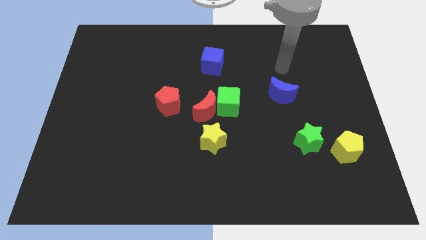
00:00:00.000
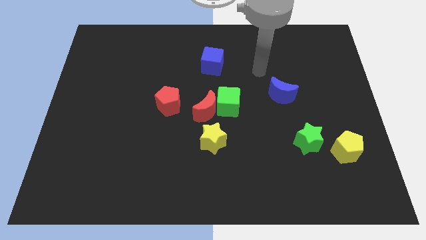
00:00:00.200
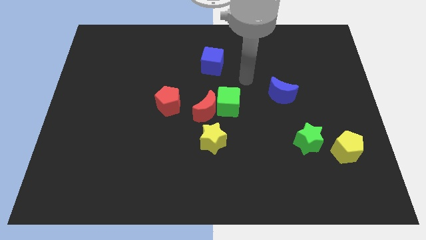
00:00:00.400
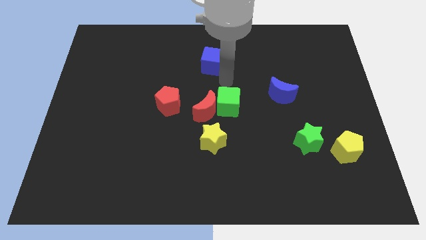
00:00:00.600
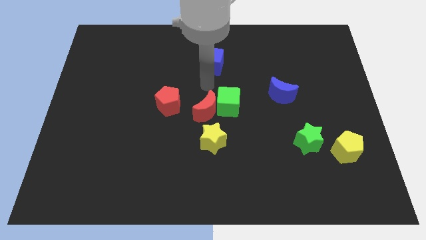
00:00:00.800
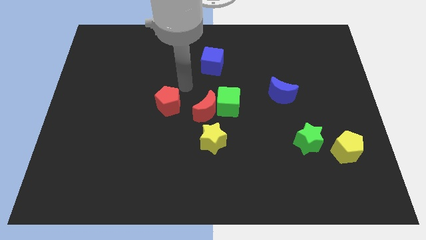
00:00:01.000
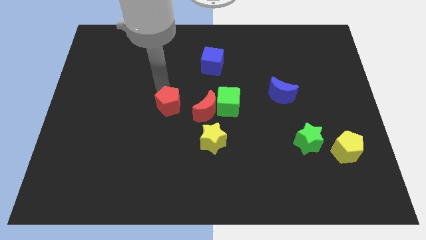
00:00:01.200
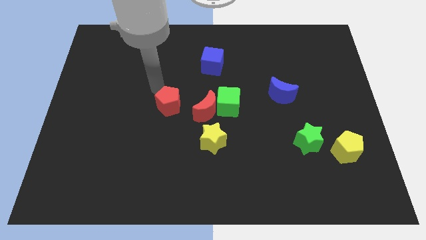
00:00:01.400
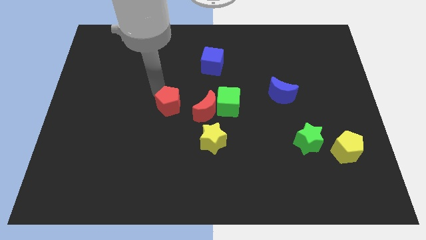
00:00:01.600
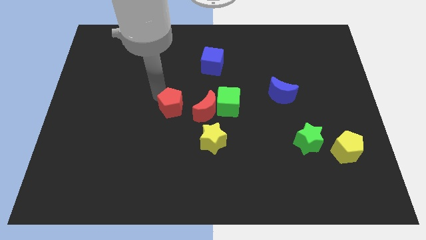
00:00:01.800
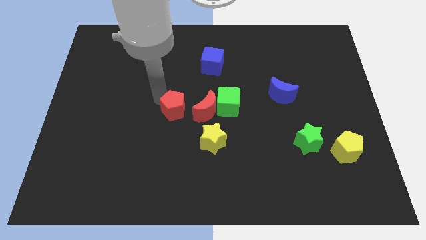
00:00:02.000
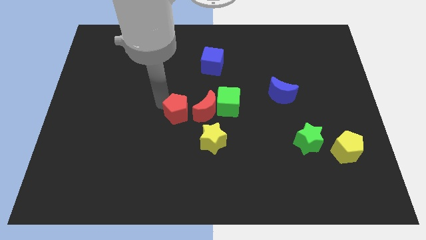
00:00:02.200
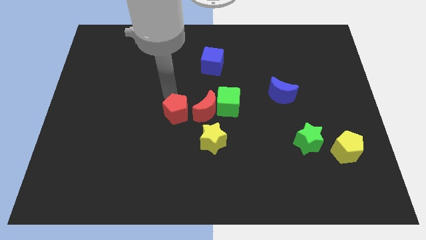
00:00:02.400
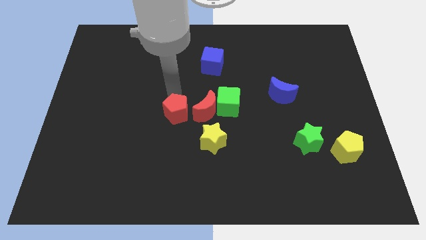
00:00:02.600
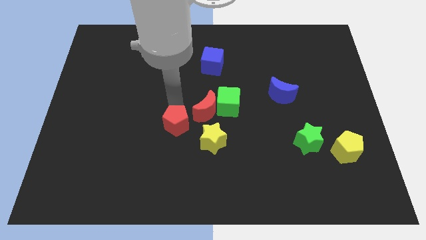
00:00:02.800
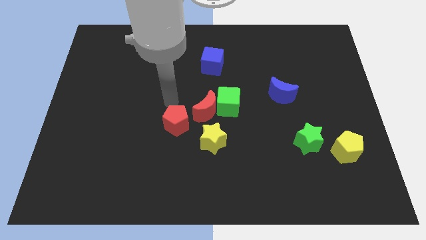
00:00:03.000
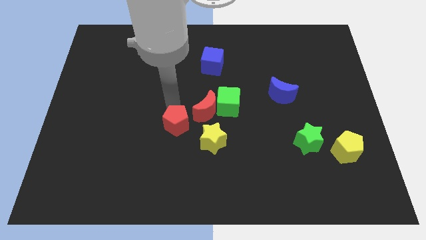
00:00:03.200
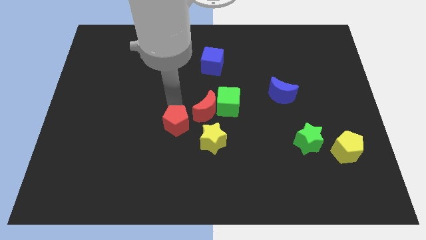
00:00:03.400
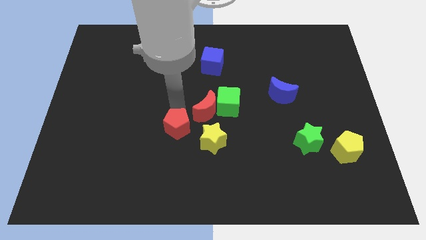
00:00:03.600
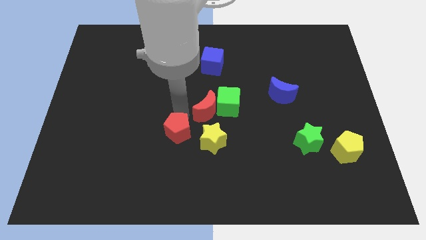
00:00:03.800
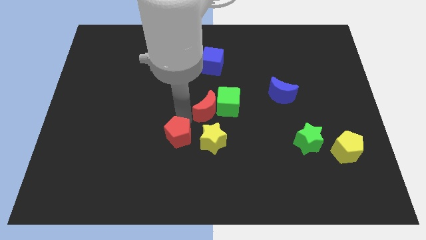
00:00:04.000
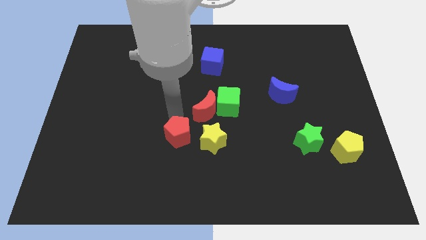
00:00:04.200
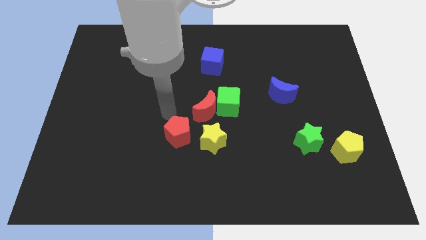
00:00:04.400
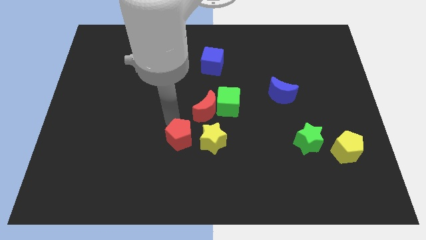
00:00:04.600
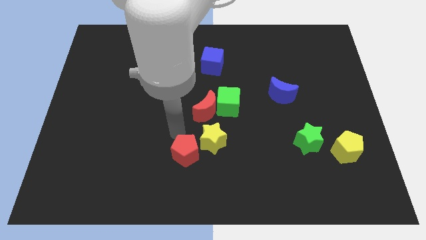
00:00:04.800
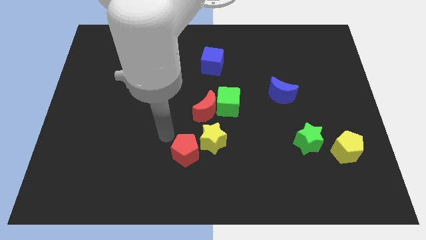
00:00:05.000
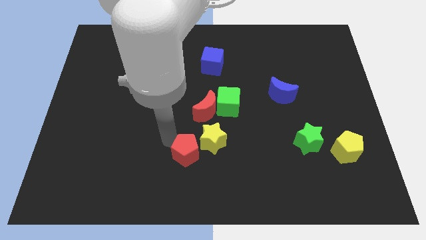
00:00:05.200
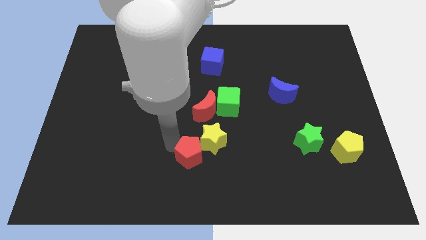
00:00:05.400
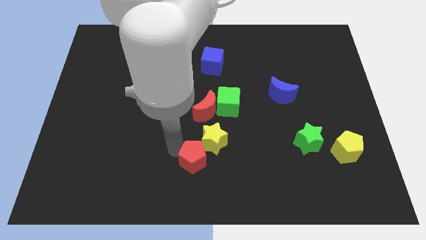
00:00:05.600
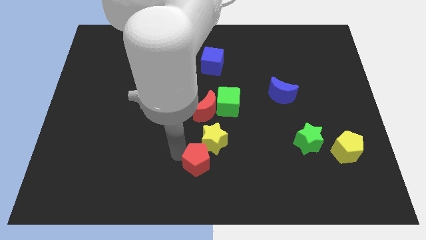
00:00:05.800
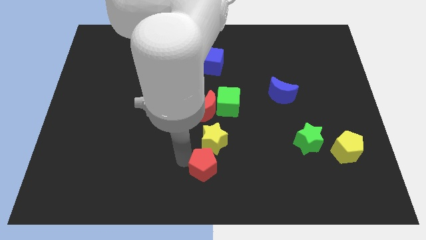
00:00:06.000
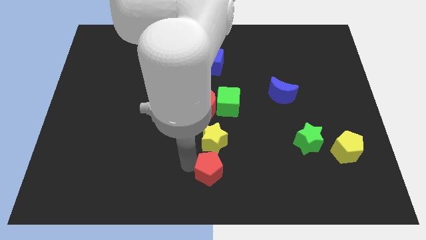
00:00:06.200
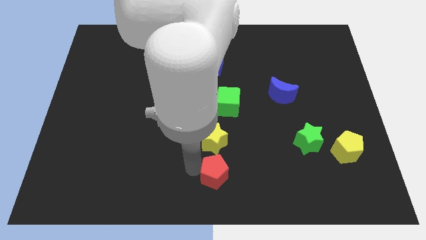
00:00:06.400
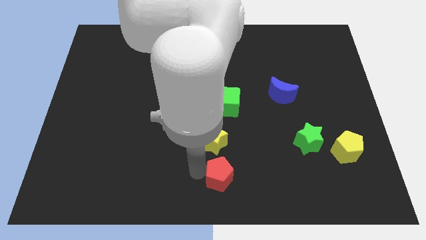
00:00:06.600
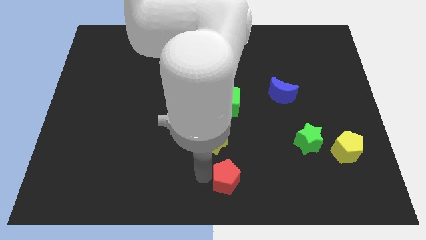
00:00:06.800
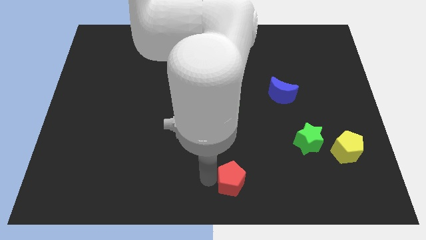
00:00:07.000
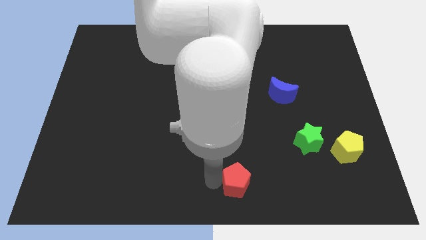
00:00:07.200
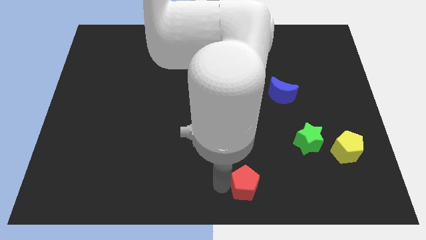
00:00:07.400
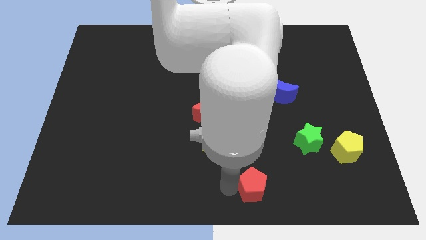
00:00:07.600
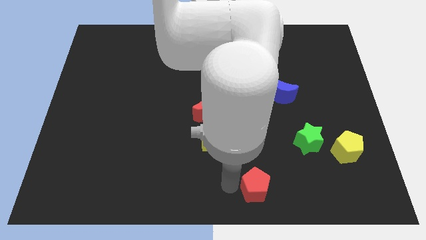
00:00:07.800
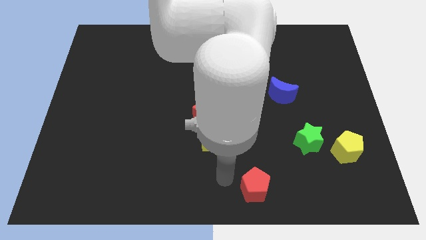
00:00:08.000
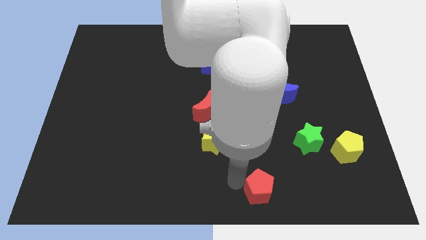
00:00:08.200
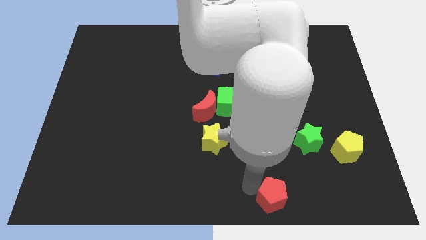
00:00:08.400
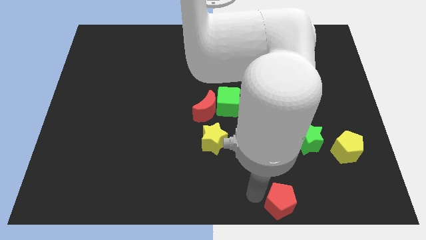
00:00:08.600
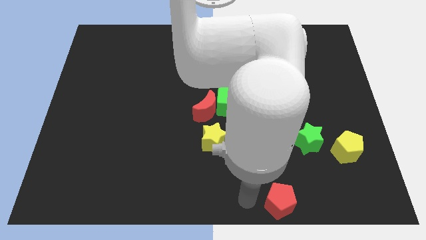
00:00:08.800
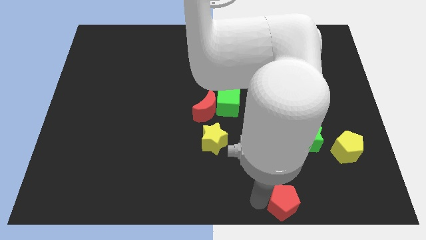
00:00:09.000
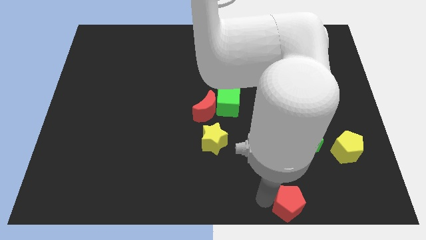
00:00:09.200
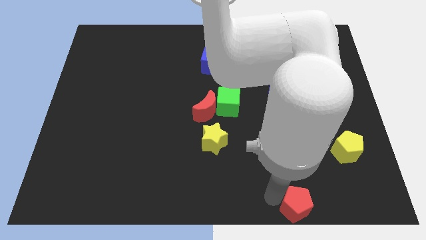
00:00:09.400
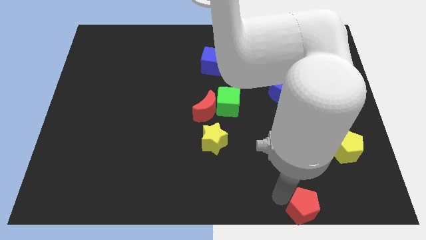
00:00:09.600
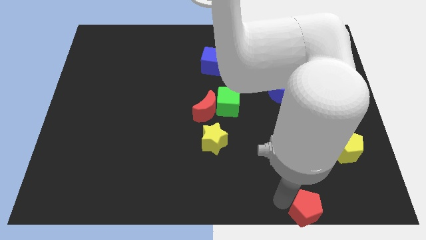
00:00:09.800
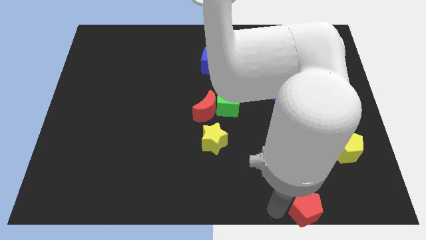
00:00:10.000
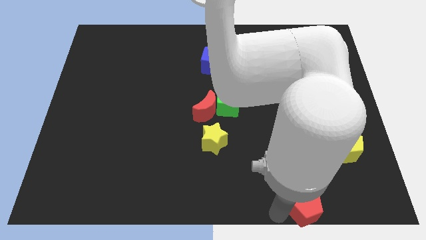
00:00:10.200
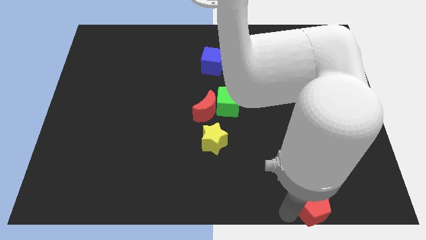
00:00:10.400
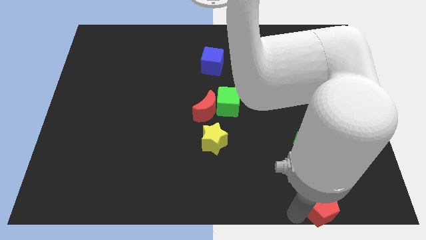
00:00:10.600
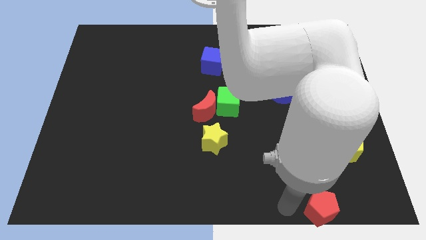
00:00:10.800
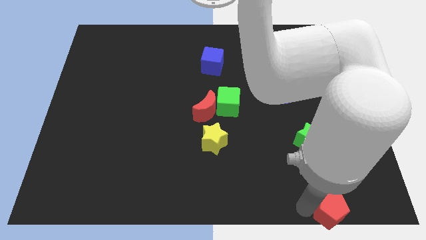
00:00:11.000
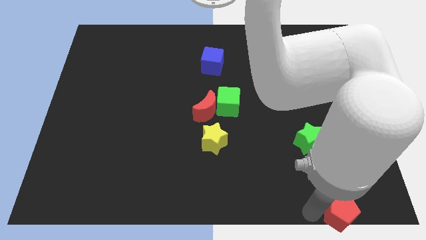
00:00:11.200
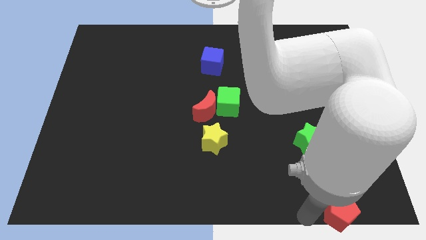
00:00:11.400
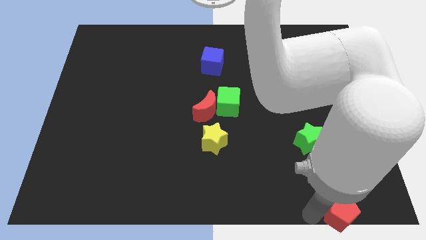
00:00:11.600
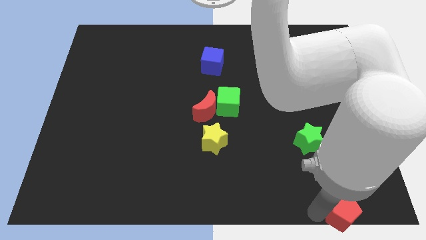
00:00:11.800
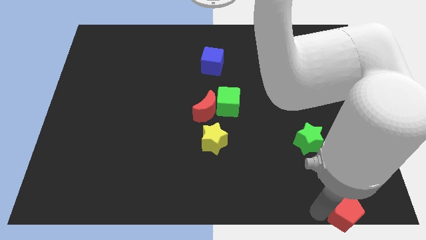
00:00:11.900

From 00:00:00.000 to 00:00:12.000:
push the red pentagon to the bottom right of the board
